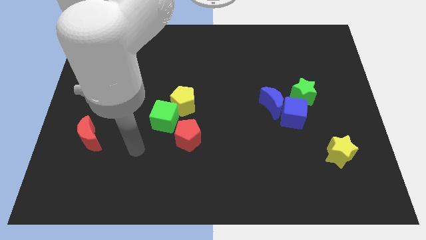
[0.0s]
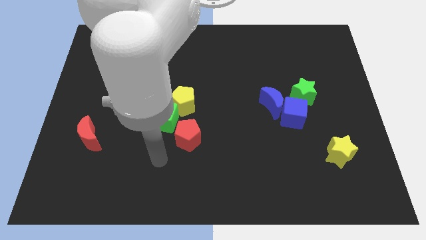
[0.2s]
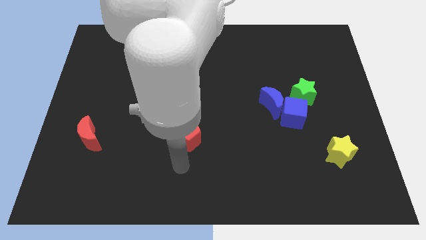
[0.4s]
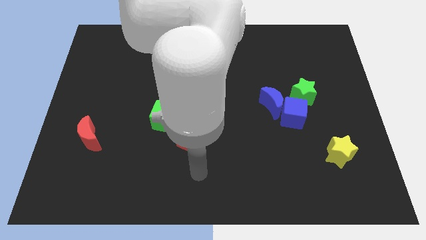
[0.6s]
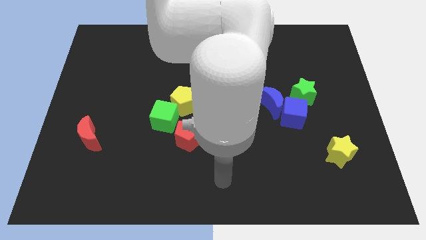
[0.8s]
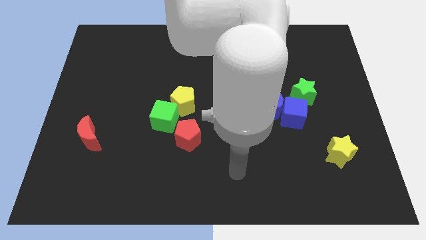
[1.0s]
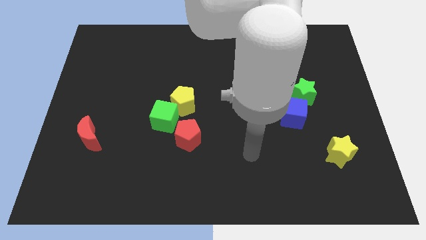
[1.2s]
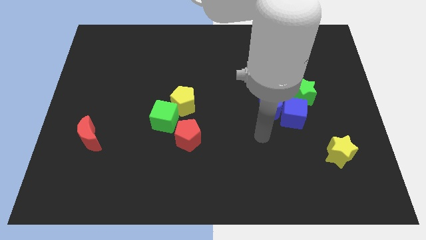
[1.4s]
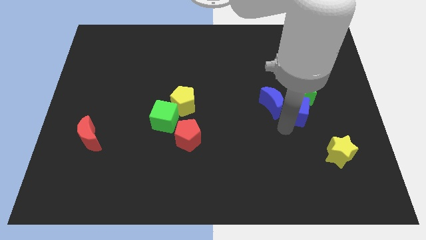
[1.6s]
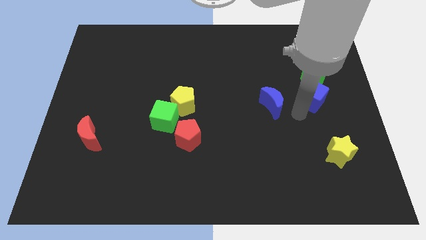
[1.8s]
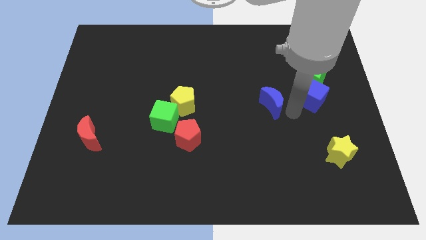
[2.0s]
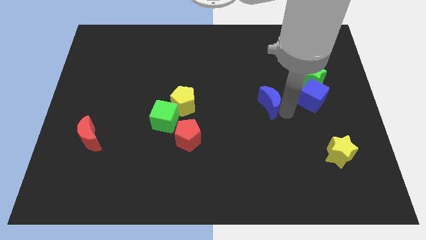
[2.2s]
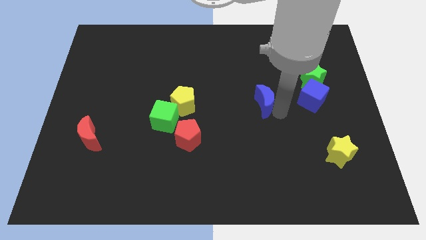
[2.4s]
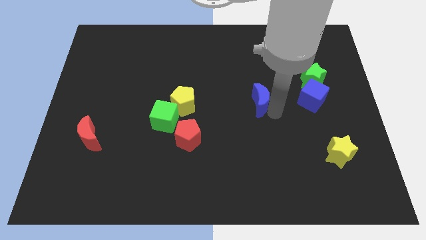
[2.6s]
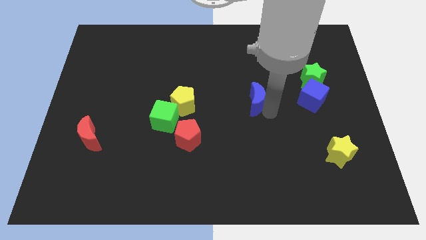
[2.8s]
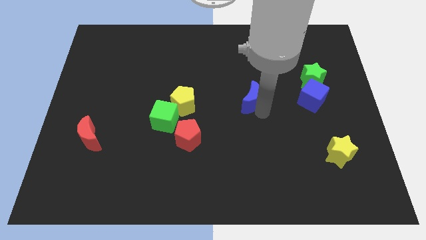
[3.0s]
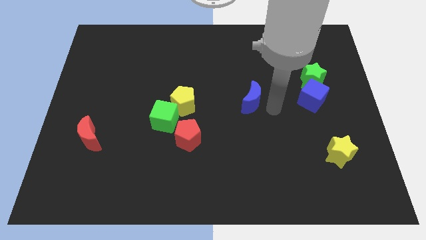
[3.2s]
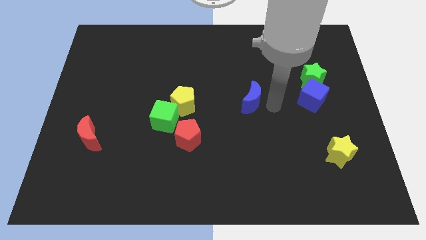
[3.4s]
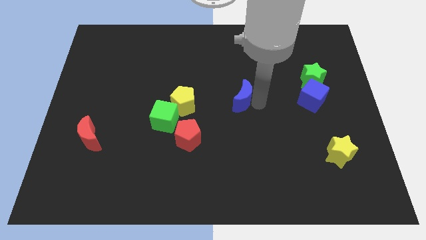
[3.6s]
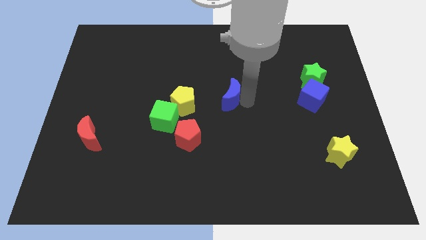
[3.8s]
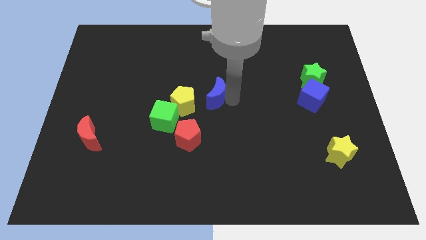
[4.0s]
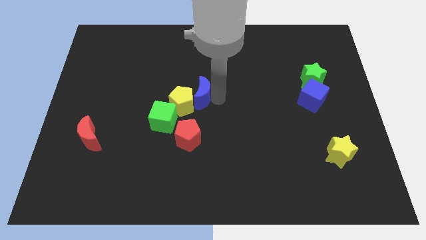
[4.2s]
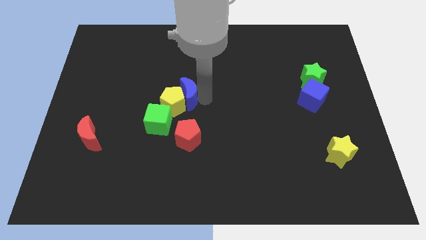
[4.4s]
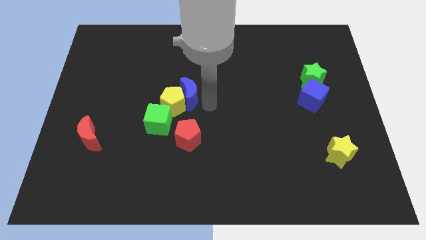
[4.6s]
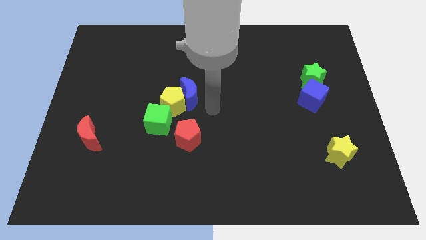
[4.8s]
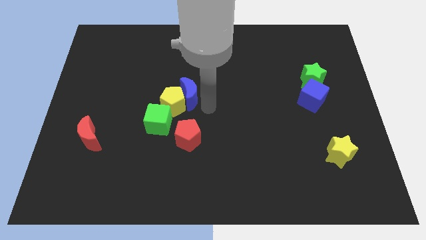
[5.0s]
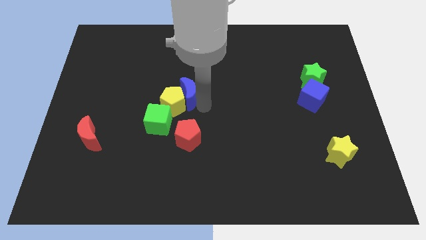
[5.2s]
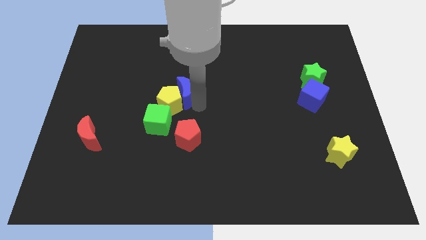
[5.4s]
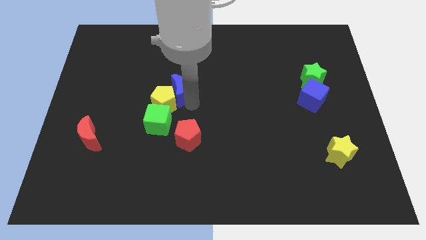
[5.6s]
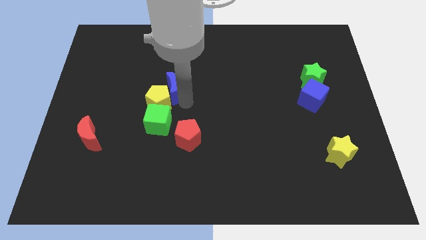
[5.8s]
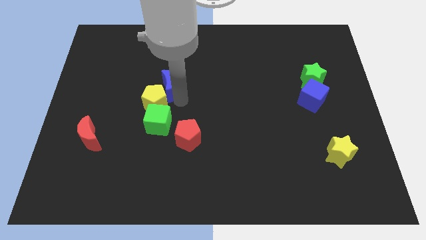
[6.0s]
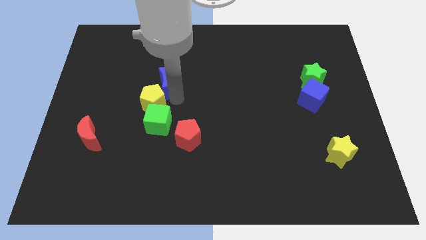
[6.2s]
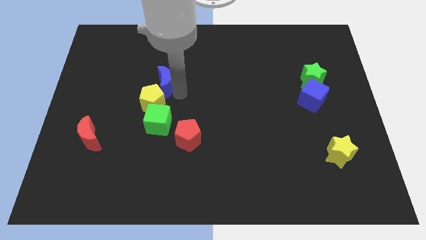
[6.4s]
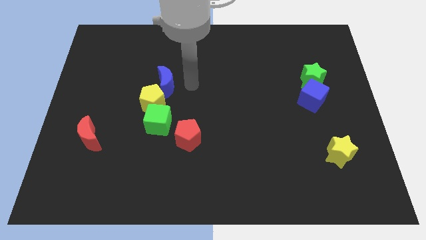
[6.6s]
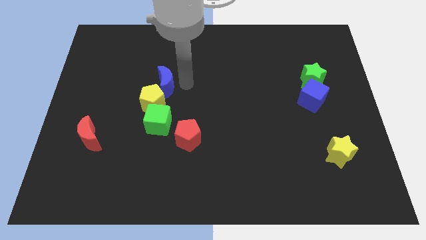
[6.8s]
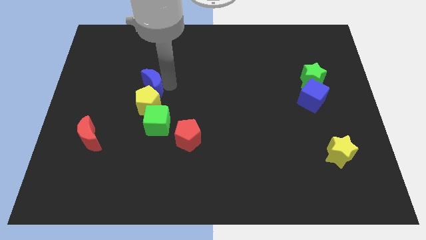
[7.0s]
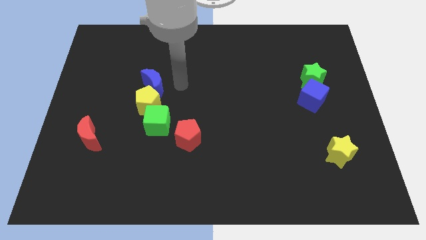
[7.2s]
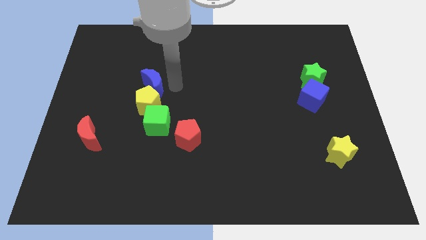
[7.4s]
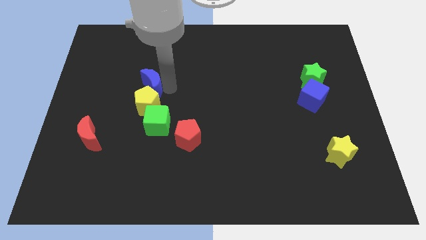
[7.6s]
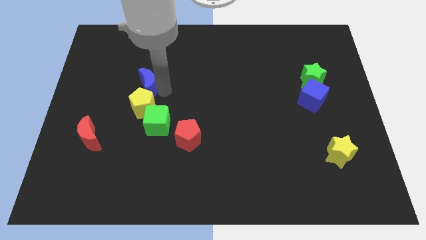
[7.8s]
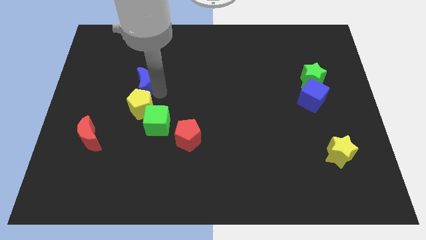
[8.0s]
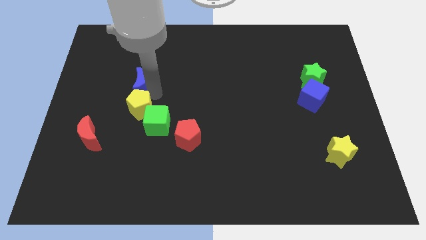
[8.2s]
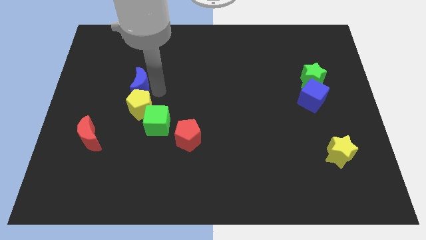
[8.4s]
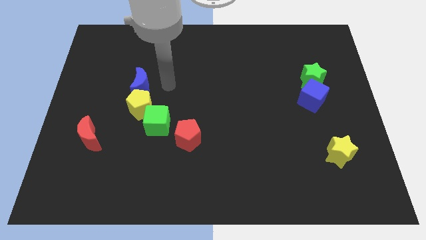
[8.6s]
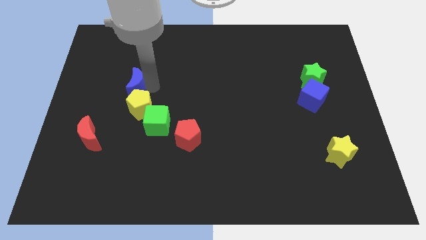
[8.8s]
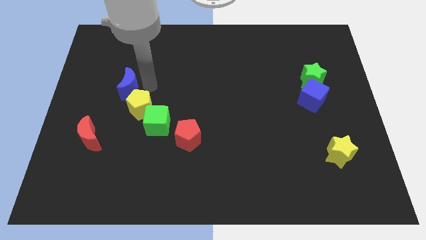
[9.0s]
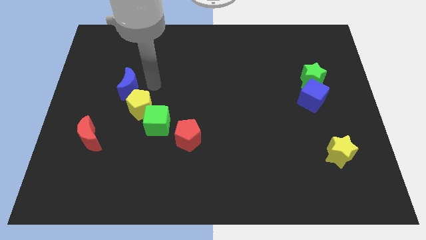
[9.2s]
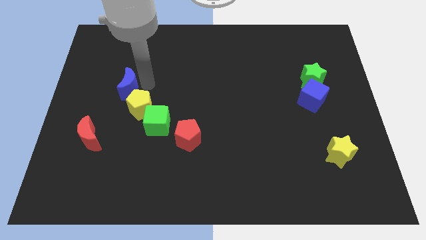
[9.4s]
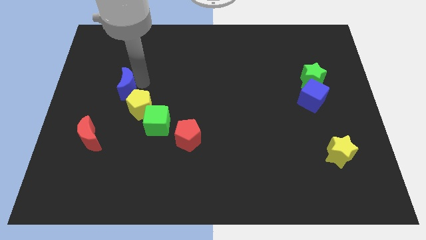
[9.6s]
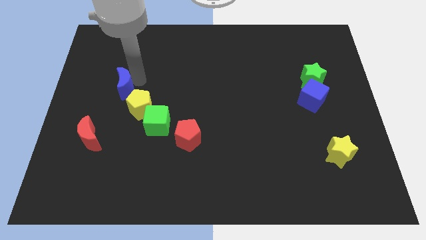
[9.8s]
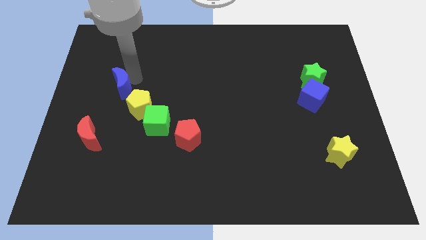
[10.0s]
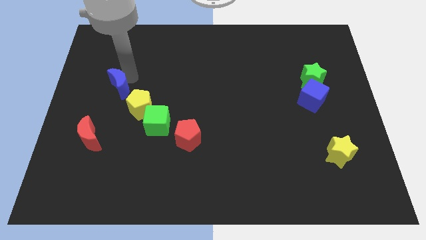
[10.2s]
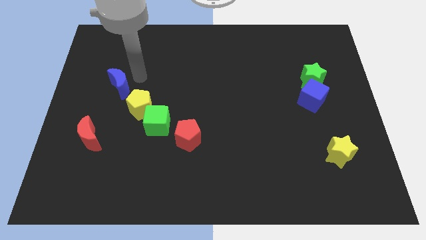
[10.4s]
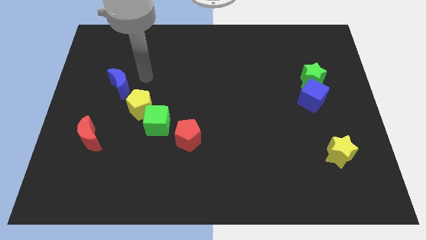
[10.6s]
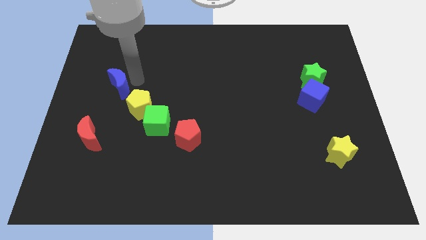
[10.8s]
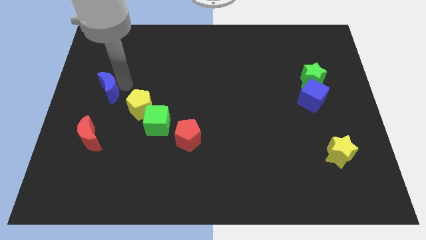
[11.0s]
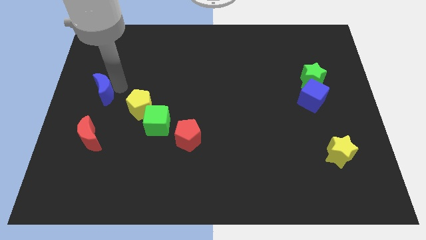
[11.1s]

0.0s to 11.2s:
put the blue moon to the left side
